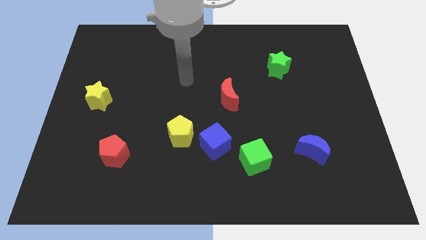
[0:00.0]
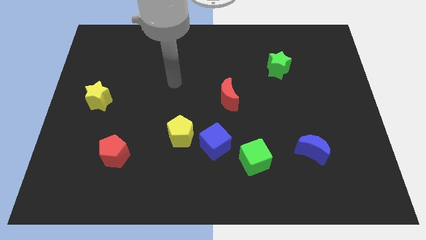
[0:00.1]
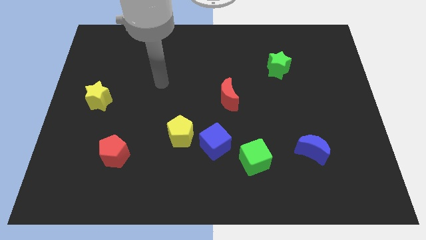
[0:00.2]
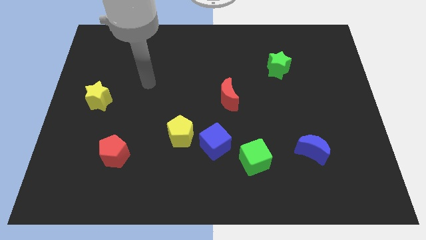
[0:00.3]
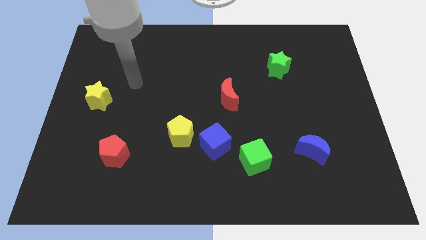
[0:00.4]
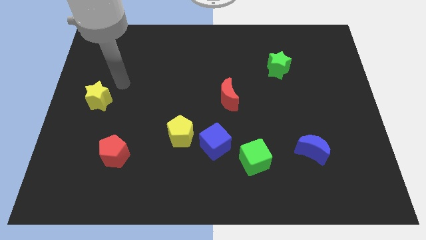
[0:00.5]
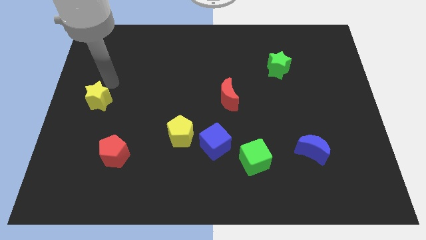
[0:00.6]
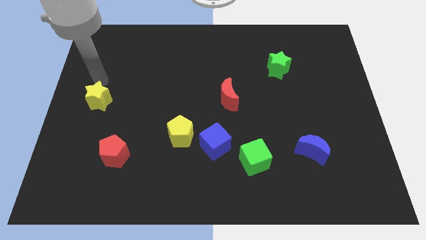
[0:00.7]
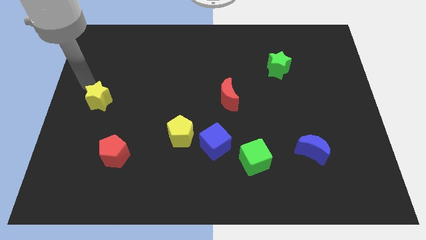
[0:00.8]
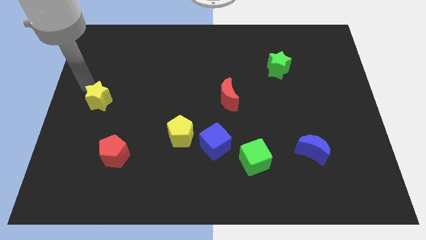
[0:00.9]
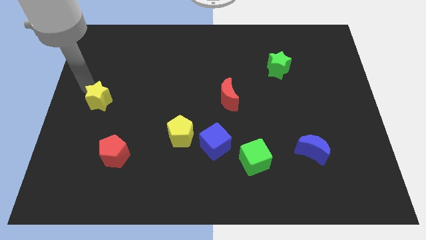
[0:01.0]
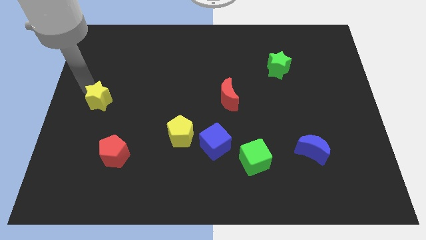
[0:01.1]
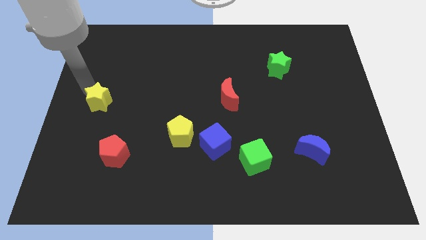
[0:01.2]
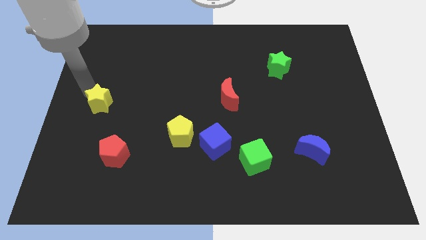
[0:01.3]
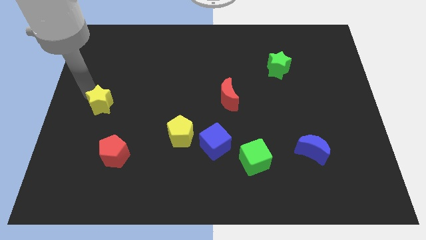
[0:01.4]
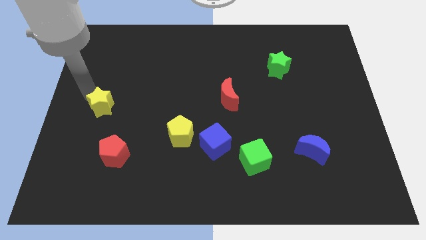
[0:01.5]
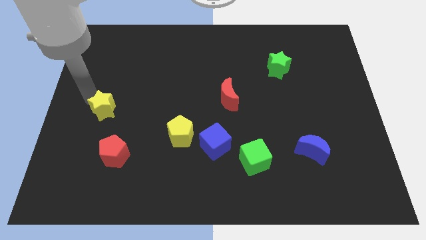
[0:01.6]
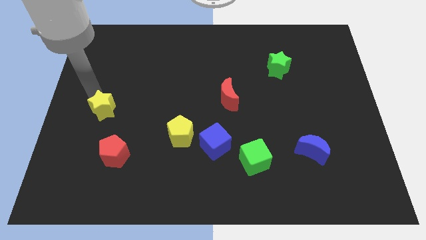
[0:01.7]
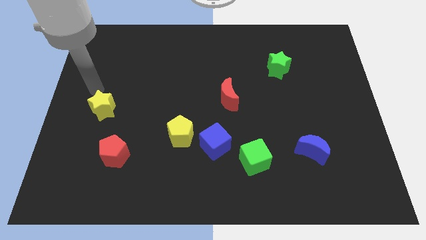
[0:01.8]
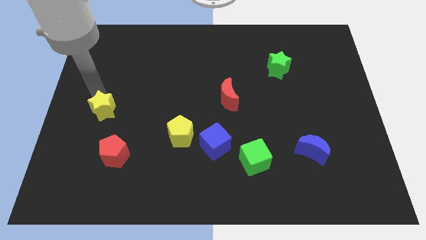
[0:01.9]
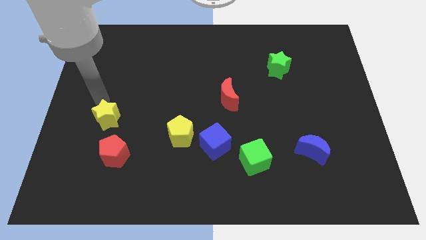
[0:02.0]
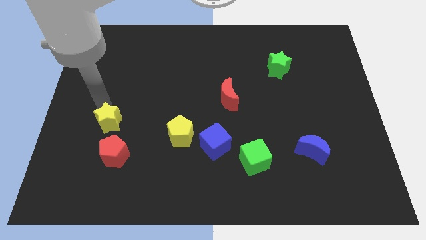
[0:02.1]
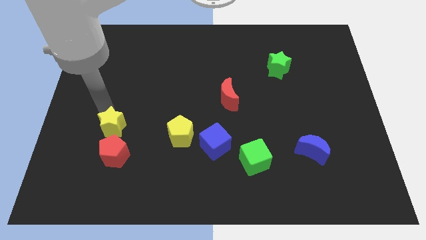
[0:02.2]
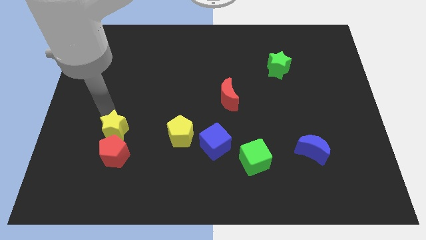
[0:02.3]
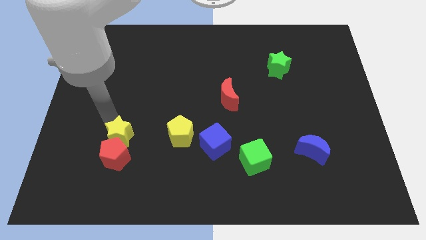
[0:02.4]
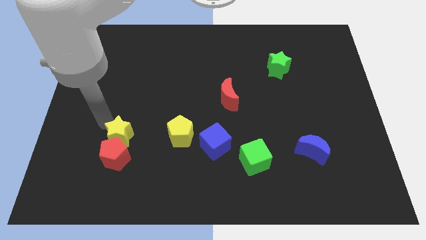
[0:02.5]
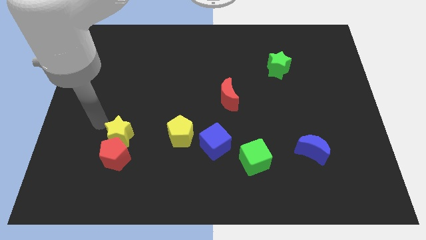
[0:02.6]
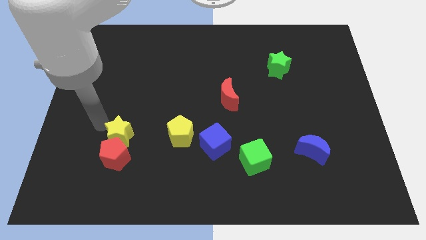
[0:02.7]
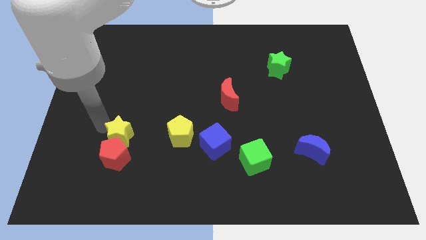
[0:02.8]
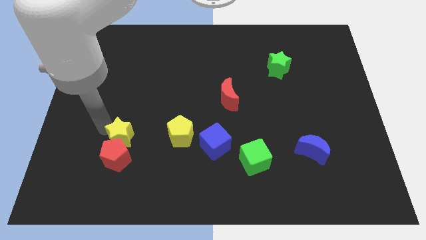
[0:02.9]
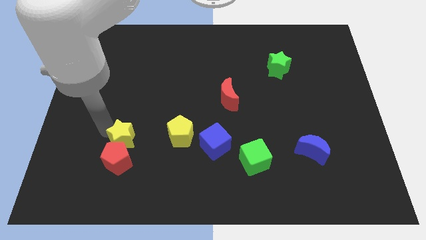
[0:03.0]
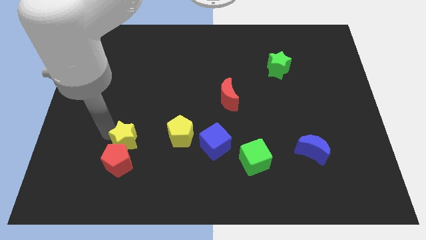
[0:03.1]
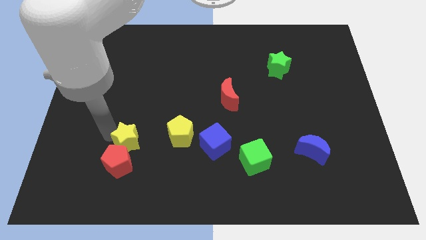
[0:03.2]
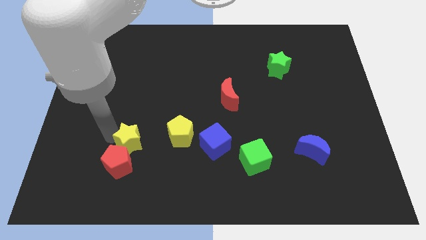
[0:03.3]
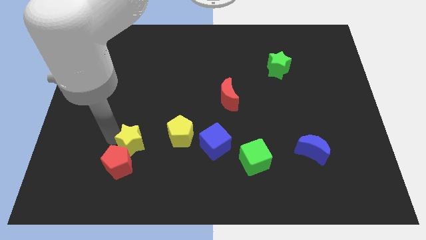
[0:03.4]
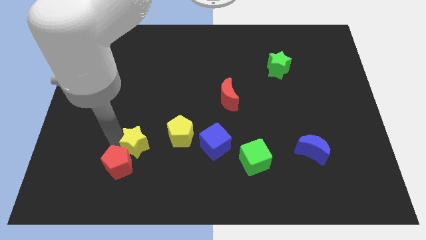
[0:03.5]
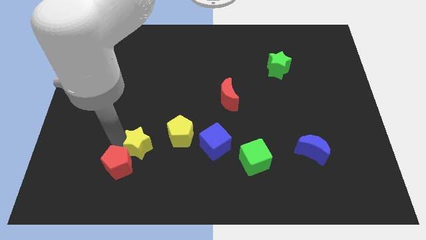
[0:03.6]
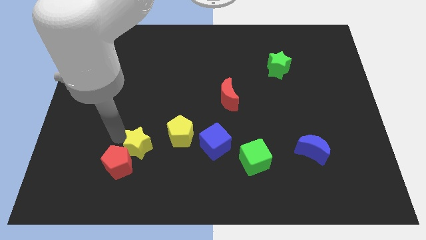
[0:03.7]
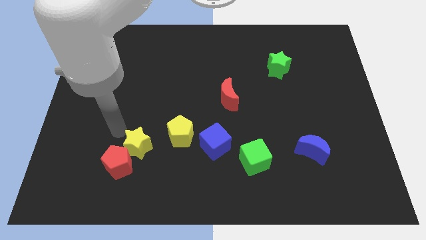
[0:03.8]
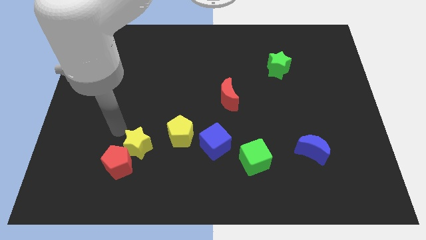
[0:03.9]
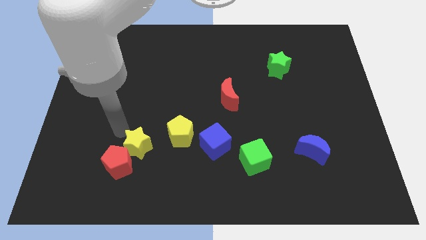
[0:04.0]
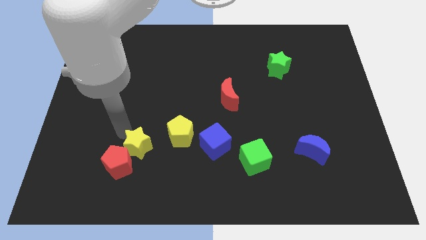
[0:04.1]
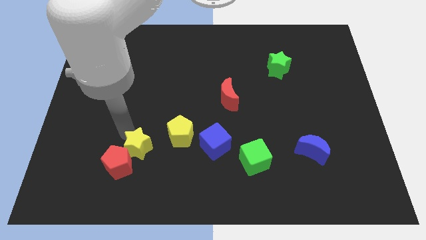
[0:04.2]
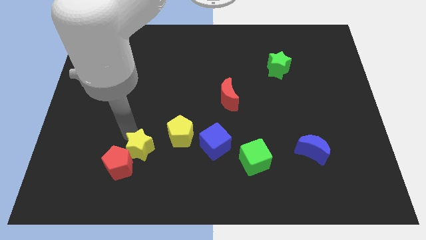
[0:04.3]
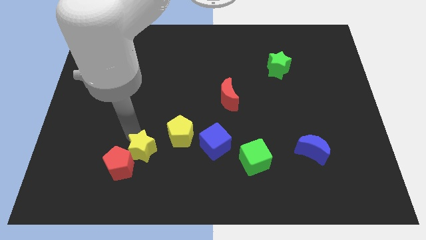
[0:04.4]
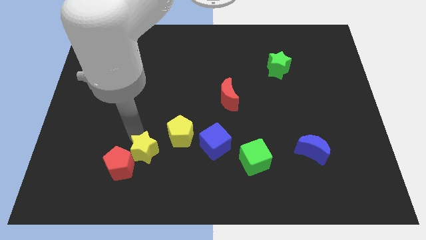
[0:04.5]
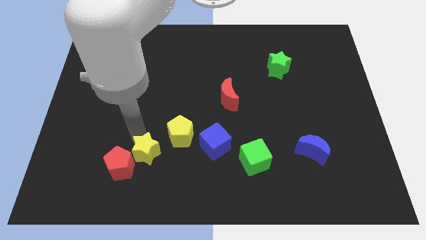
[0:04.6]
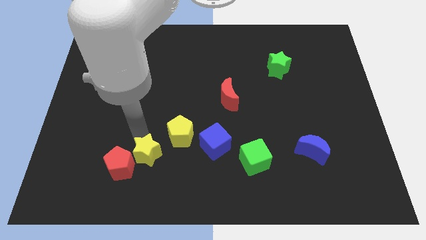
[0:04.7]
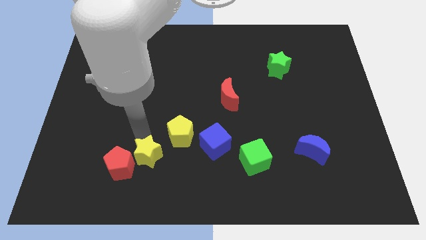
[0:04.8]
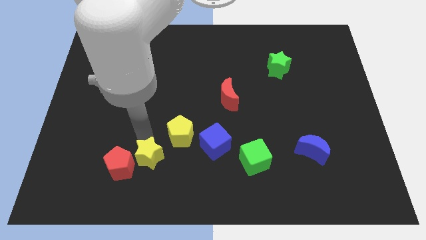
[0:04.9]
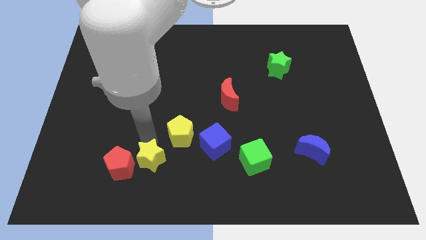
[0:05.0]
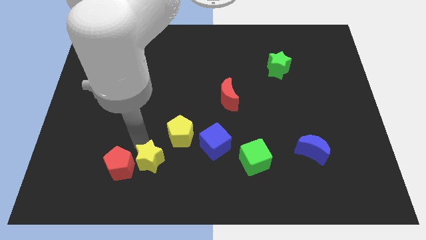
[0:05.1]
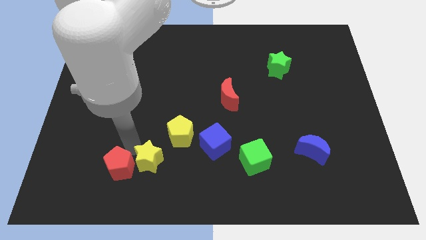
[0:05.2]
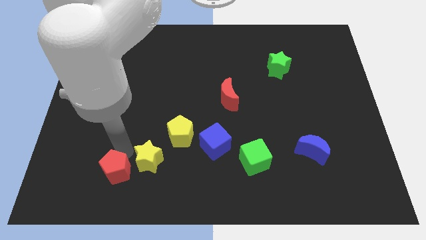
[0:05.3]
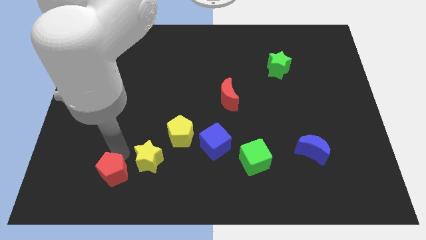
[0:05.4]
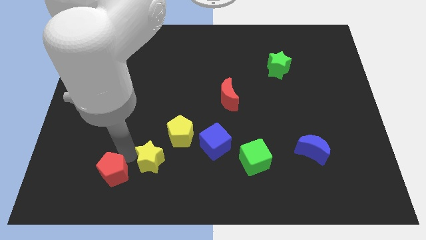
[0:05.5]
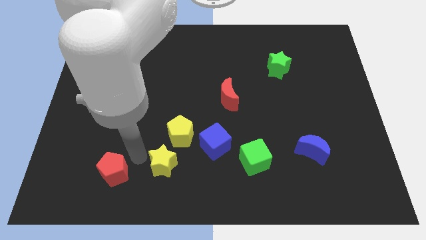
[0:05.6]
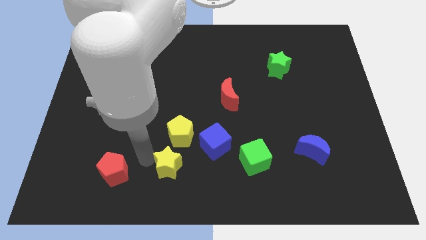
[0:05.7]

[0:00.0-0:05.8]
slide the yellow star to the bottom left of the blue cube
